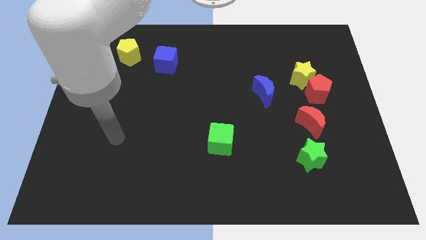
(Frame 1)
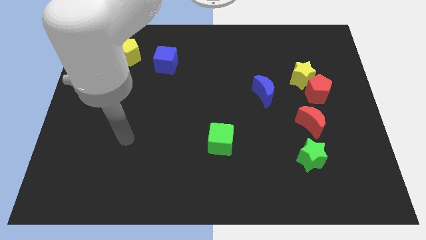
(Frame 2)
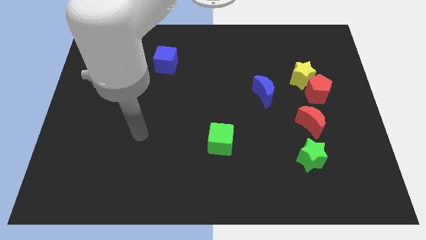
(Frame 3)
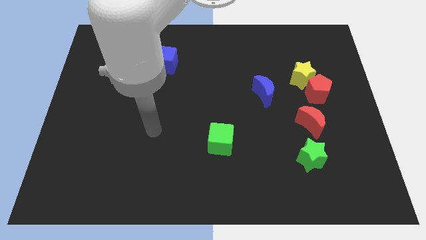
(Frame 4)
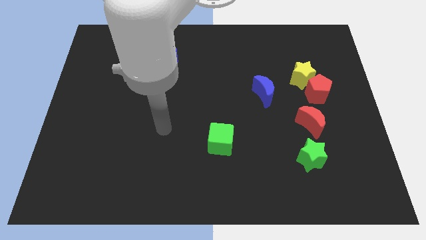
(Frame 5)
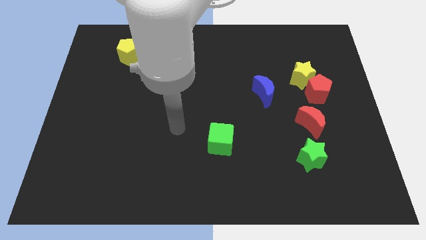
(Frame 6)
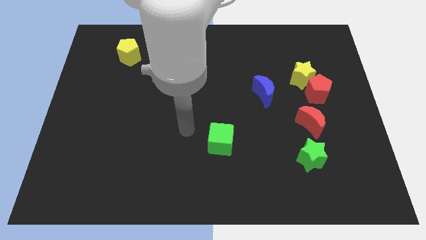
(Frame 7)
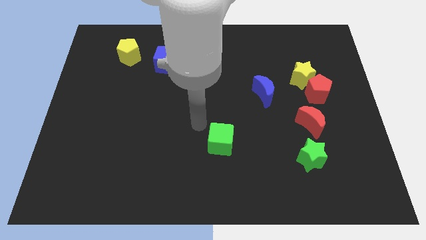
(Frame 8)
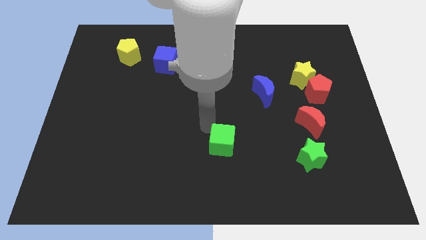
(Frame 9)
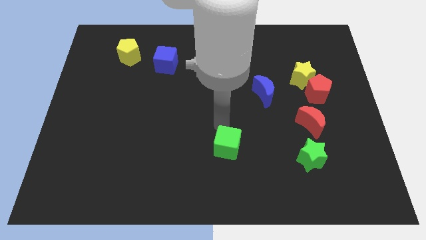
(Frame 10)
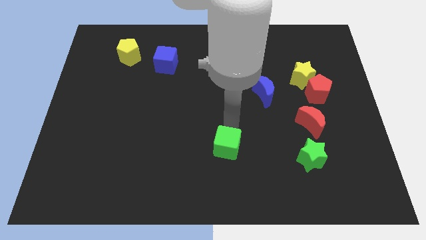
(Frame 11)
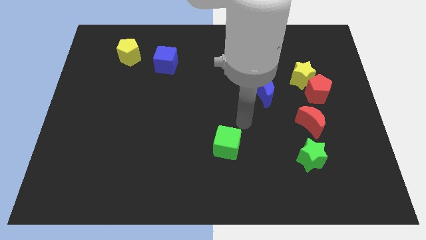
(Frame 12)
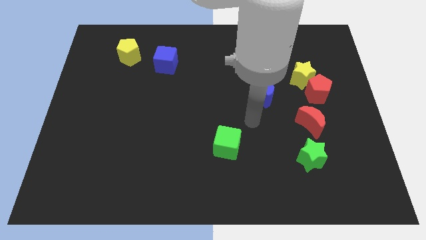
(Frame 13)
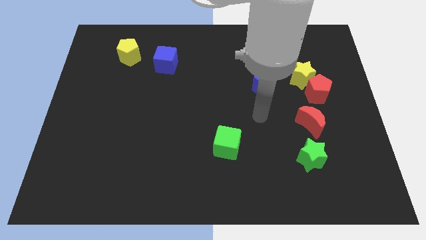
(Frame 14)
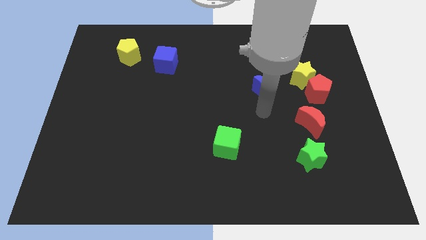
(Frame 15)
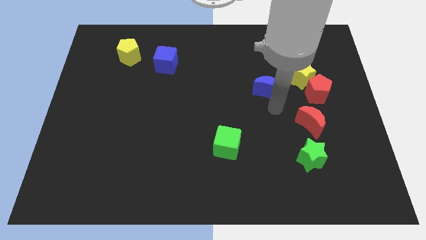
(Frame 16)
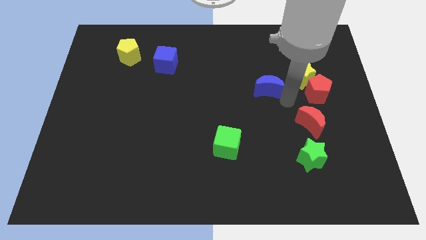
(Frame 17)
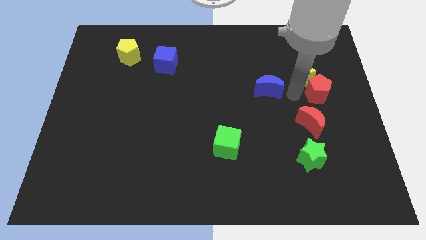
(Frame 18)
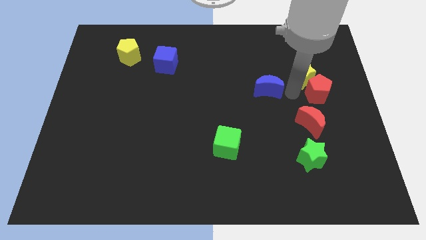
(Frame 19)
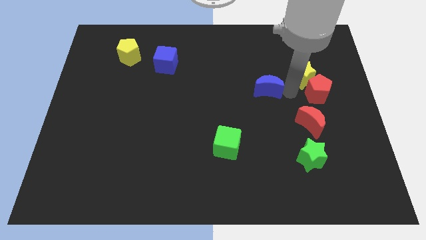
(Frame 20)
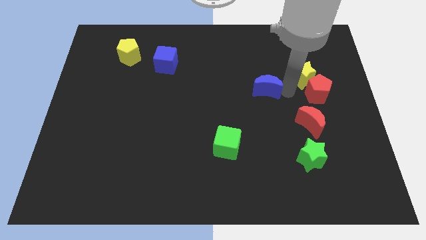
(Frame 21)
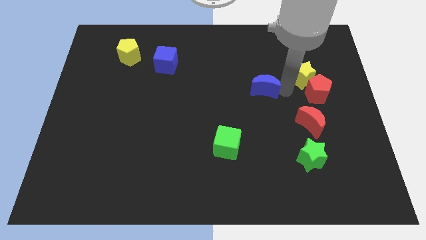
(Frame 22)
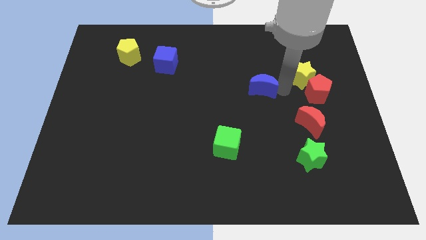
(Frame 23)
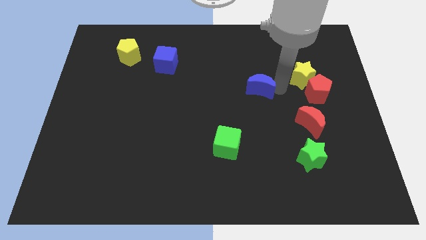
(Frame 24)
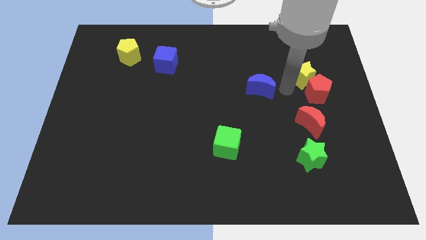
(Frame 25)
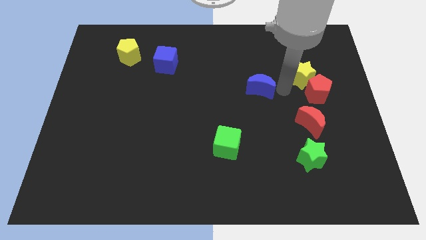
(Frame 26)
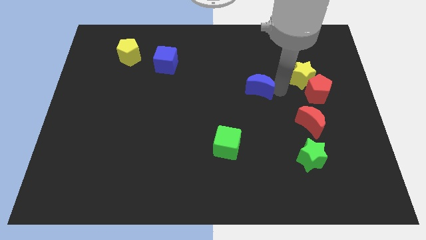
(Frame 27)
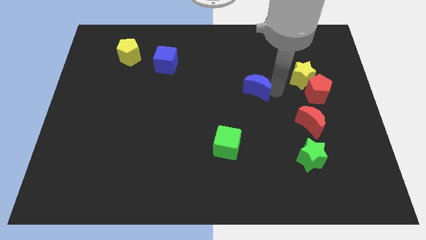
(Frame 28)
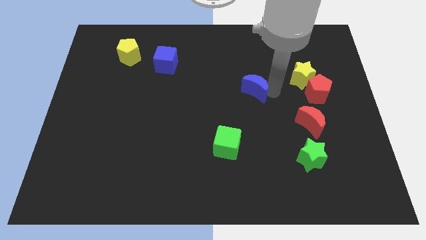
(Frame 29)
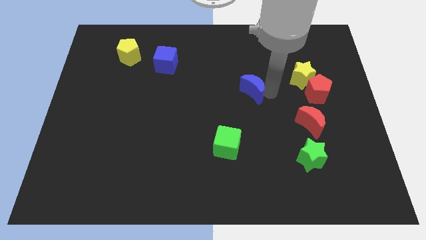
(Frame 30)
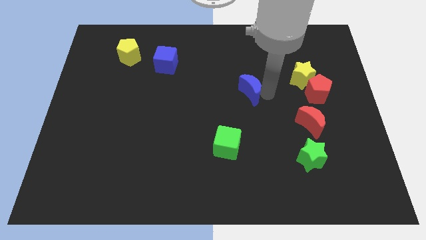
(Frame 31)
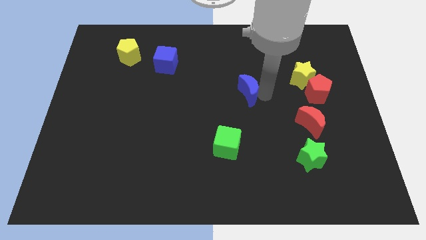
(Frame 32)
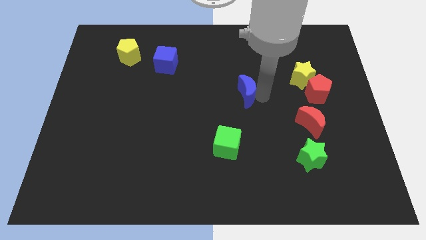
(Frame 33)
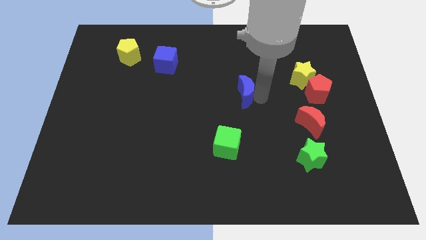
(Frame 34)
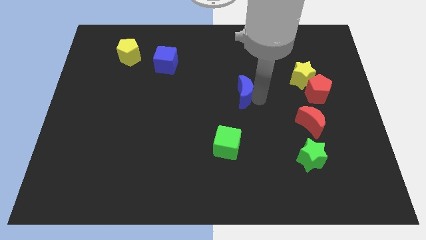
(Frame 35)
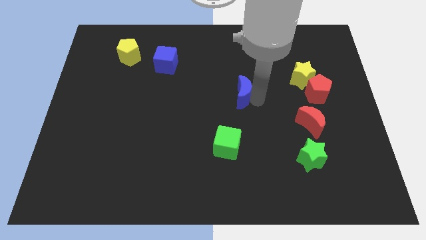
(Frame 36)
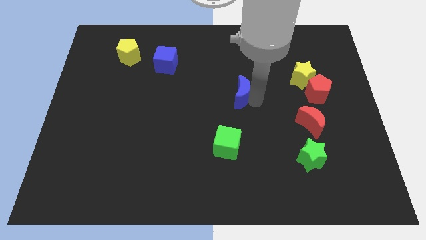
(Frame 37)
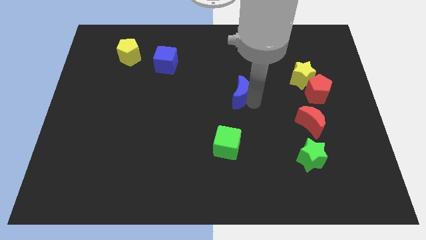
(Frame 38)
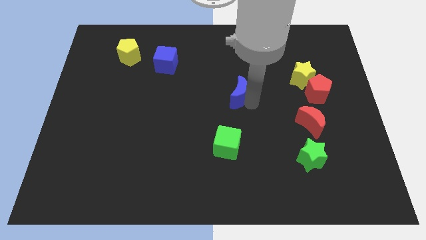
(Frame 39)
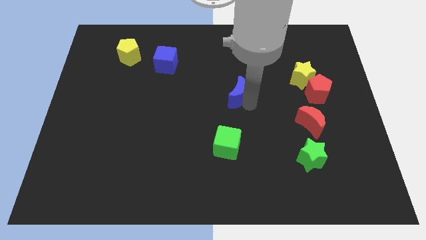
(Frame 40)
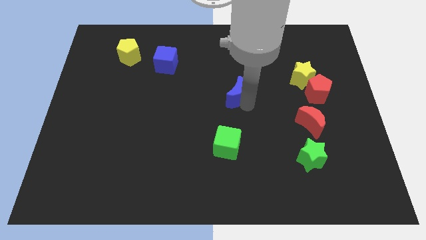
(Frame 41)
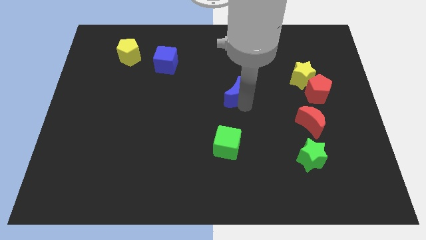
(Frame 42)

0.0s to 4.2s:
move the blue moon a little to the left

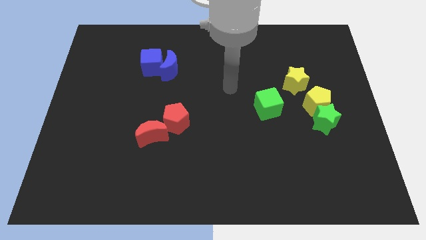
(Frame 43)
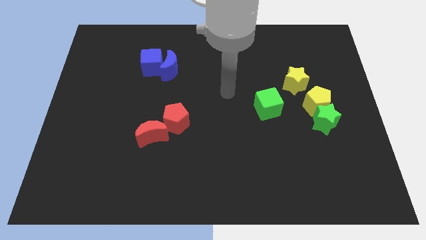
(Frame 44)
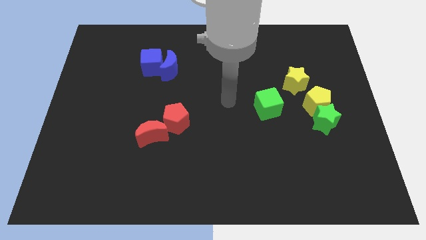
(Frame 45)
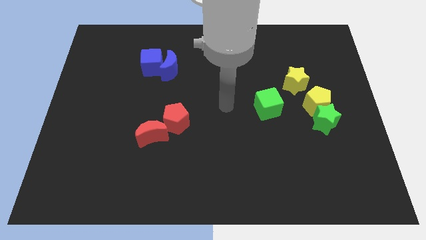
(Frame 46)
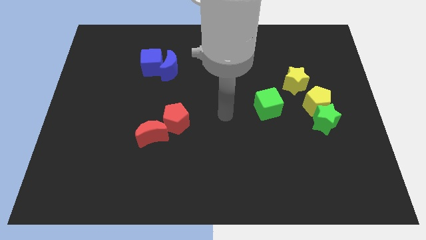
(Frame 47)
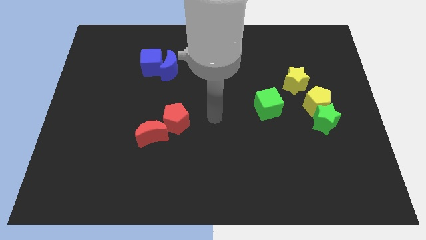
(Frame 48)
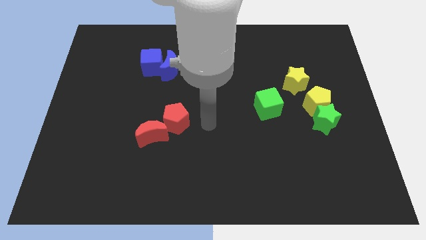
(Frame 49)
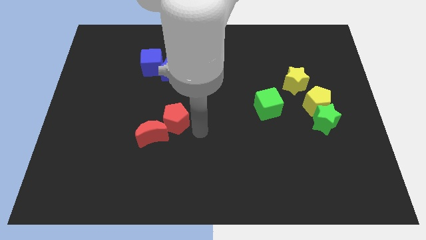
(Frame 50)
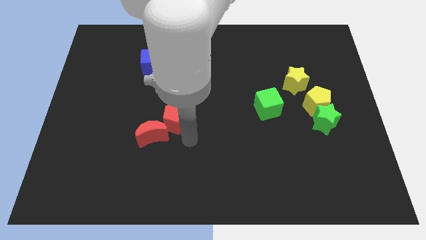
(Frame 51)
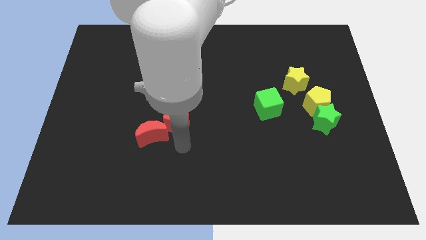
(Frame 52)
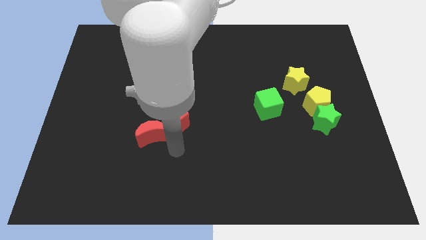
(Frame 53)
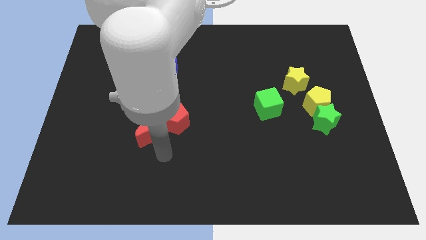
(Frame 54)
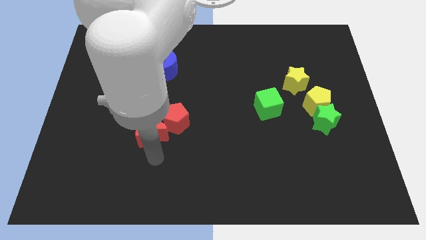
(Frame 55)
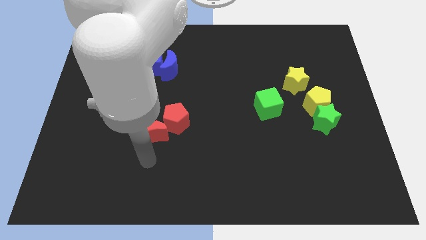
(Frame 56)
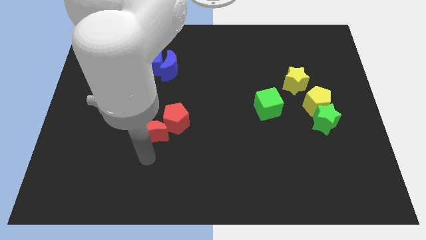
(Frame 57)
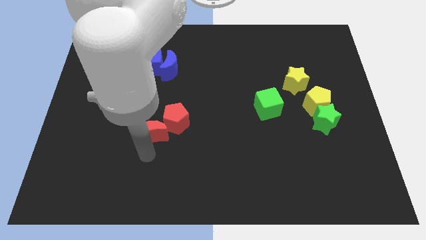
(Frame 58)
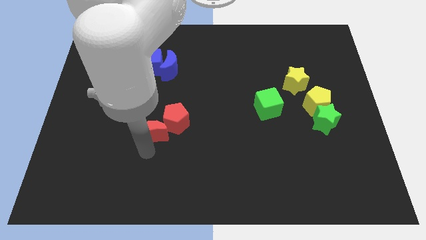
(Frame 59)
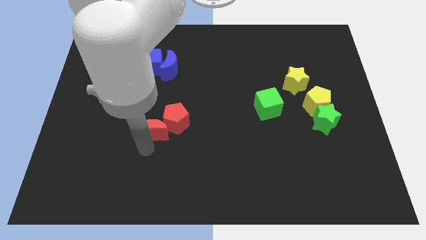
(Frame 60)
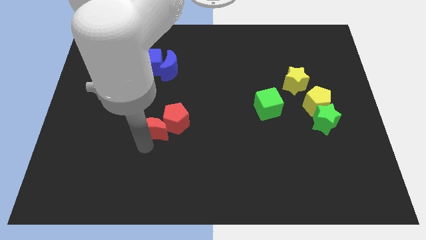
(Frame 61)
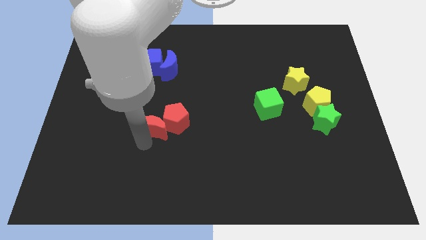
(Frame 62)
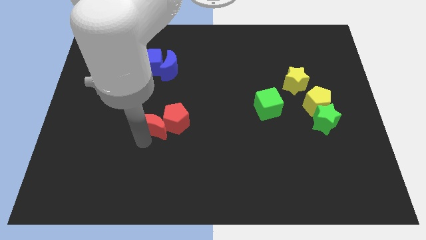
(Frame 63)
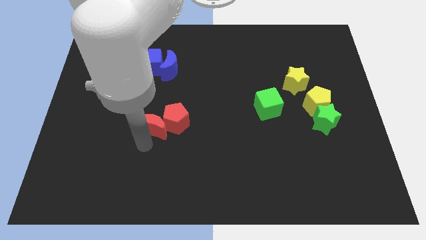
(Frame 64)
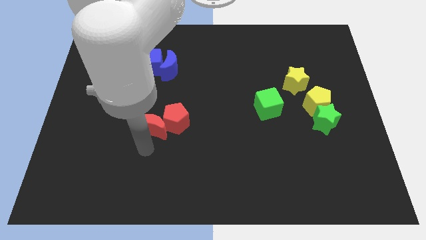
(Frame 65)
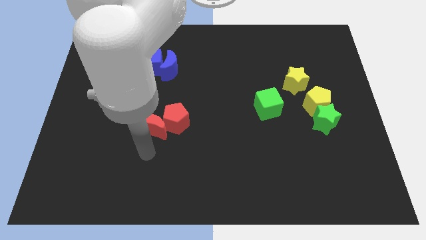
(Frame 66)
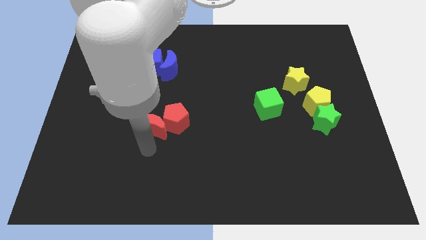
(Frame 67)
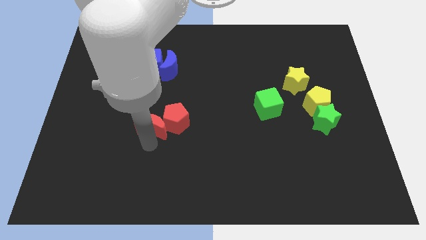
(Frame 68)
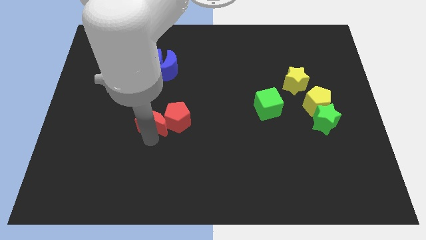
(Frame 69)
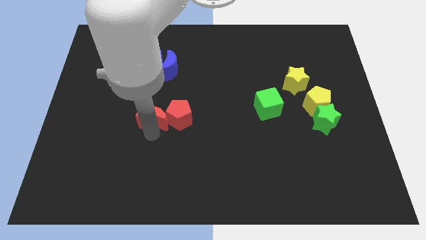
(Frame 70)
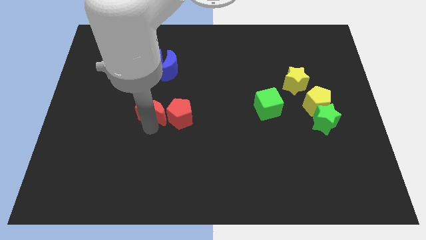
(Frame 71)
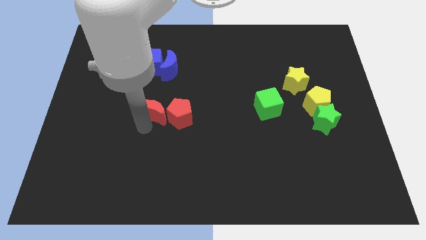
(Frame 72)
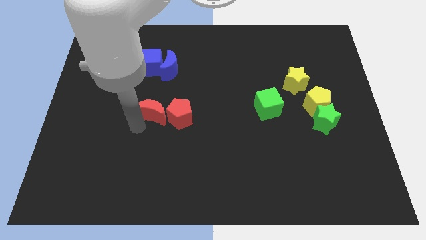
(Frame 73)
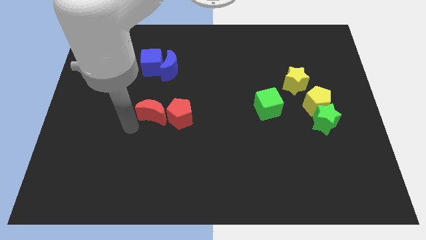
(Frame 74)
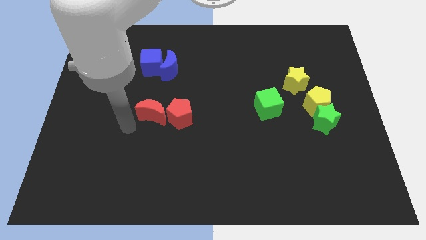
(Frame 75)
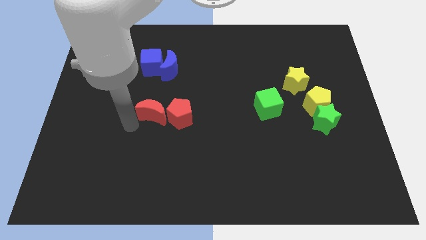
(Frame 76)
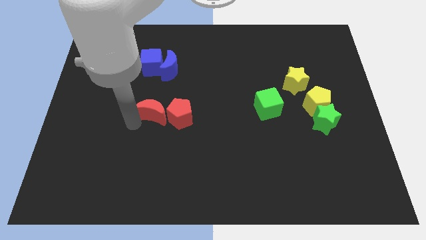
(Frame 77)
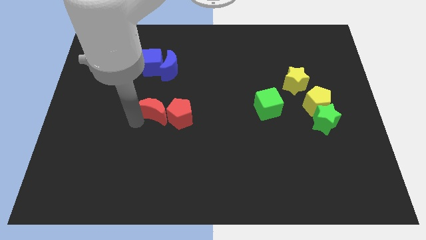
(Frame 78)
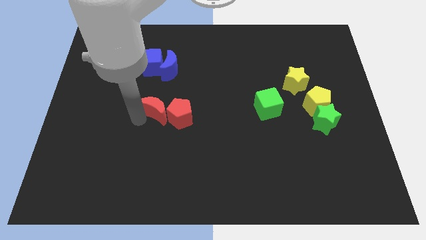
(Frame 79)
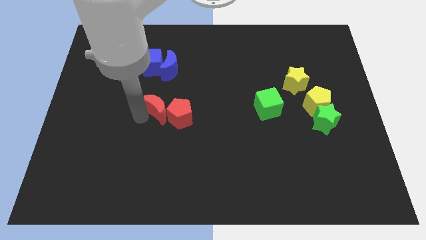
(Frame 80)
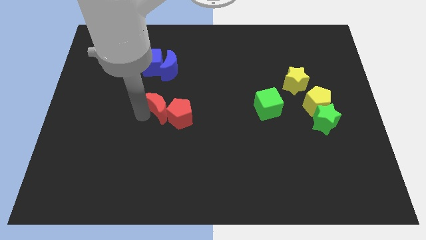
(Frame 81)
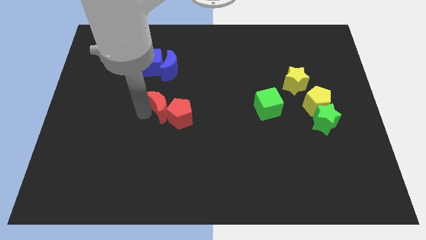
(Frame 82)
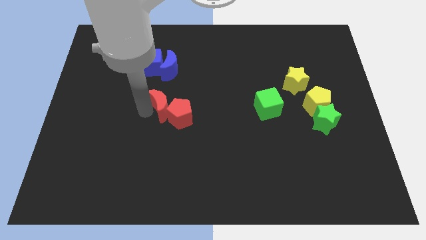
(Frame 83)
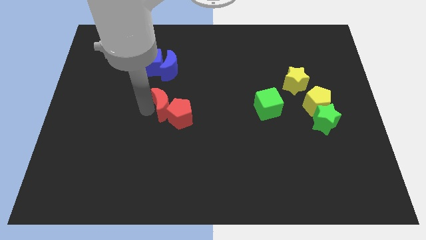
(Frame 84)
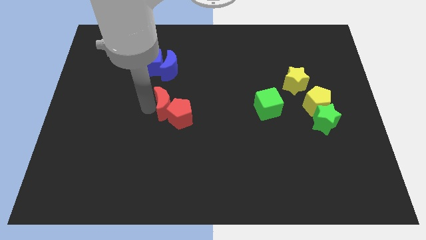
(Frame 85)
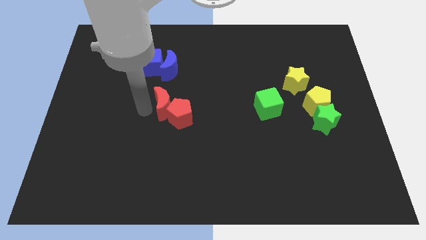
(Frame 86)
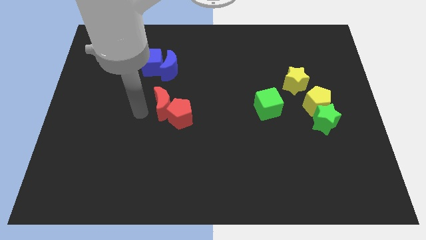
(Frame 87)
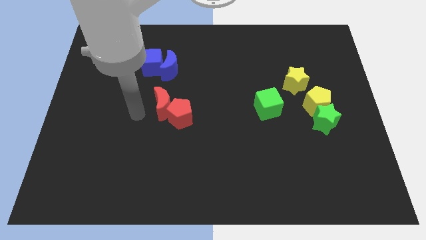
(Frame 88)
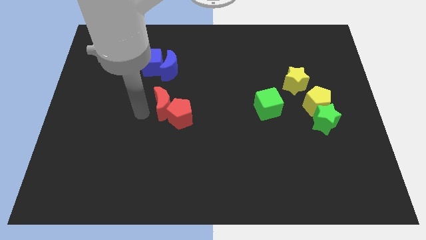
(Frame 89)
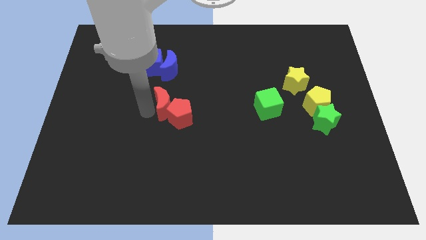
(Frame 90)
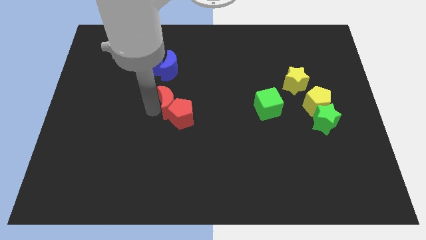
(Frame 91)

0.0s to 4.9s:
slide the red moon upwards and then to the right somewhat
